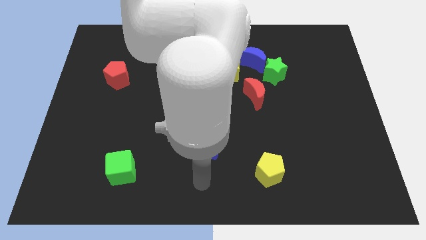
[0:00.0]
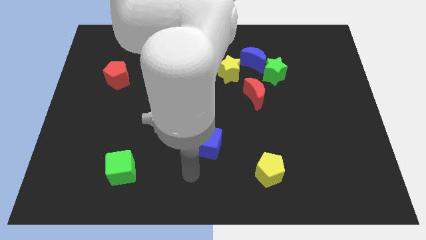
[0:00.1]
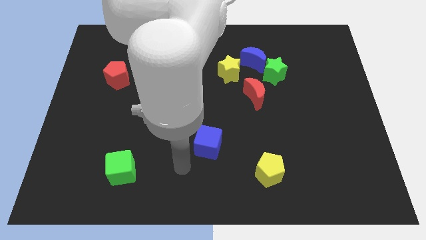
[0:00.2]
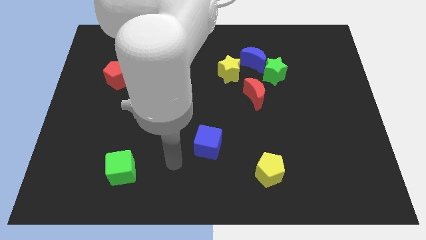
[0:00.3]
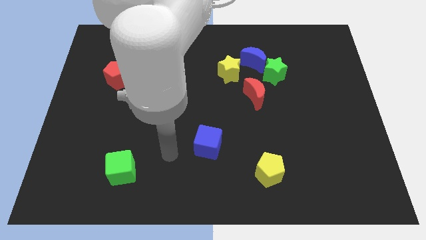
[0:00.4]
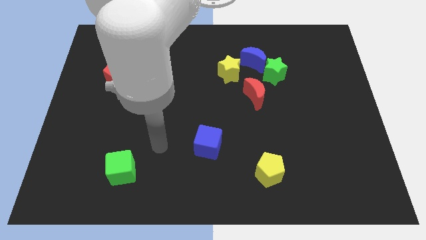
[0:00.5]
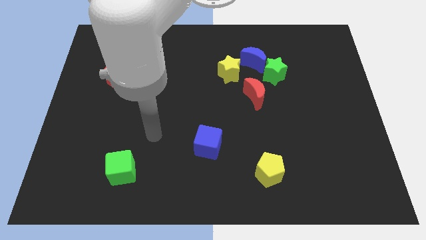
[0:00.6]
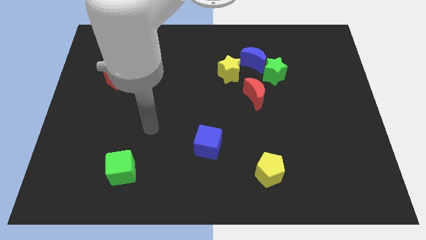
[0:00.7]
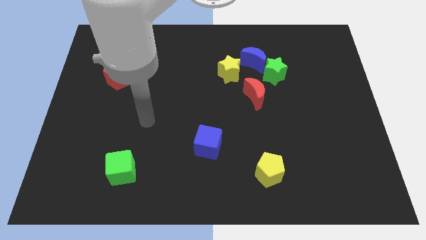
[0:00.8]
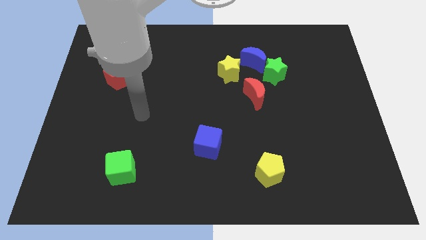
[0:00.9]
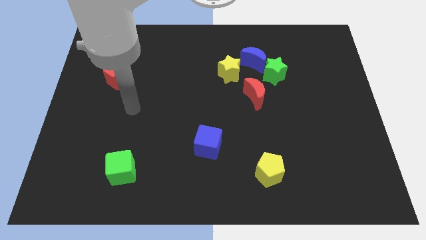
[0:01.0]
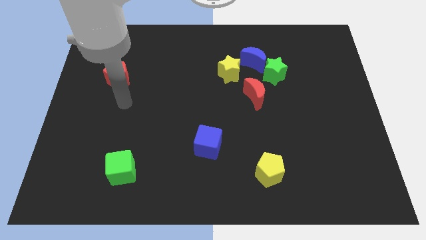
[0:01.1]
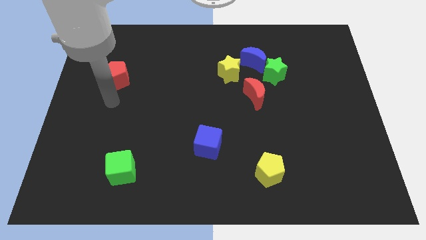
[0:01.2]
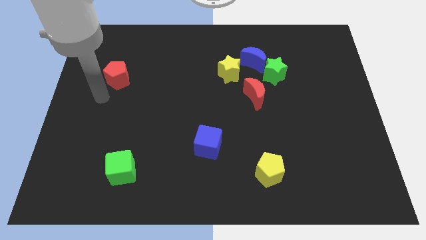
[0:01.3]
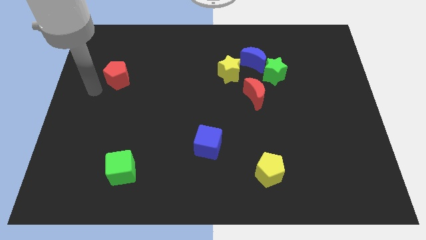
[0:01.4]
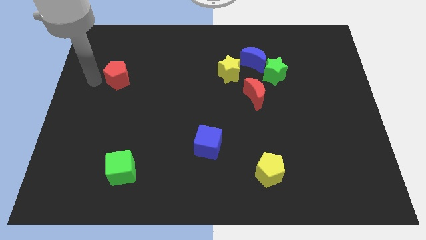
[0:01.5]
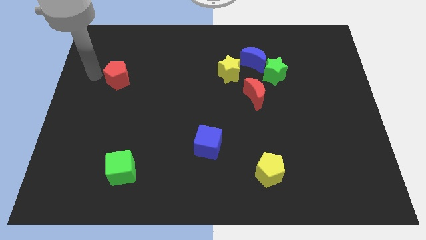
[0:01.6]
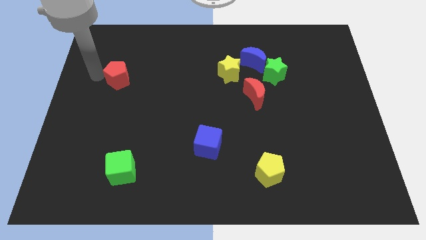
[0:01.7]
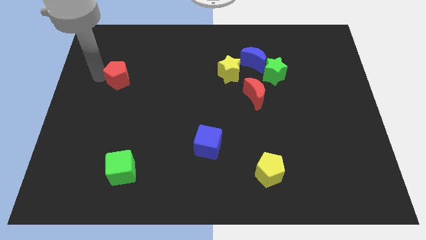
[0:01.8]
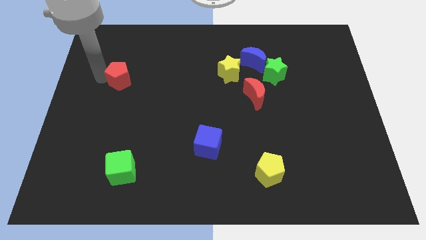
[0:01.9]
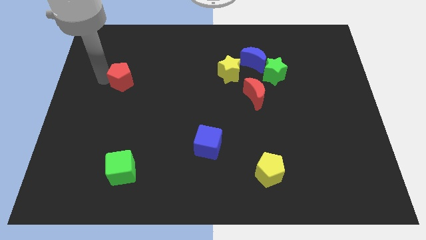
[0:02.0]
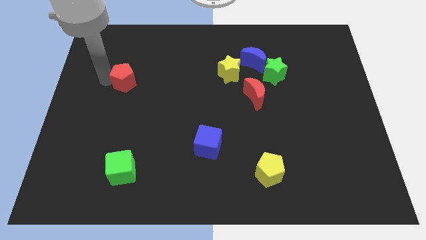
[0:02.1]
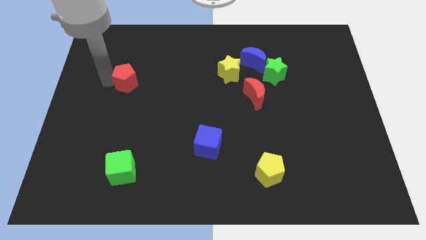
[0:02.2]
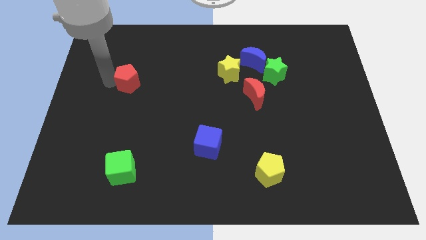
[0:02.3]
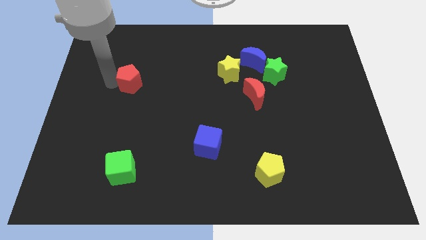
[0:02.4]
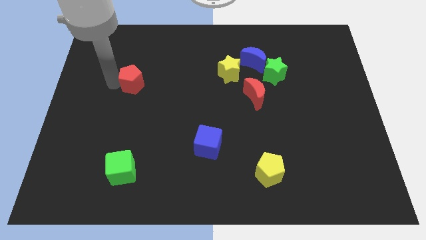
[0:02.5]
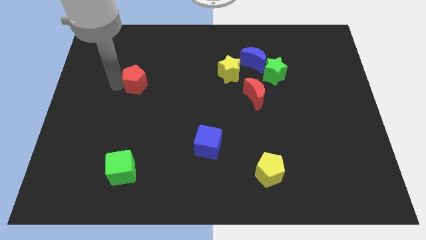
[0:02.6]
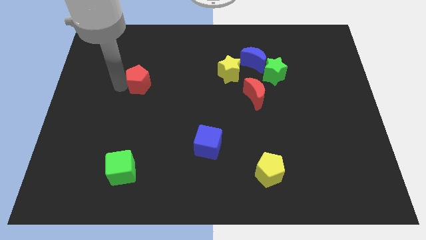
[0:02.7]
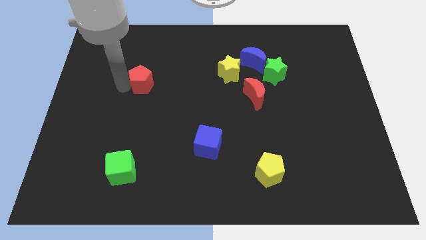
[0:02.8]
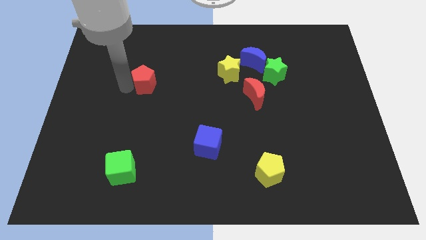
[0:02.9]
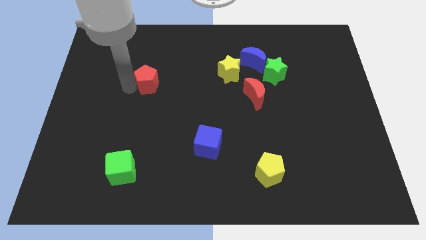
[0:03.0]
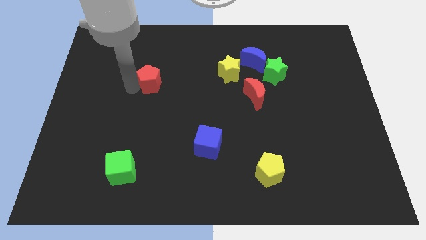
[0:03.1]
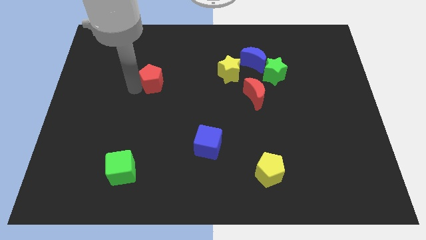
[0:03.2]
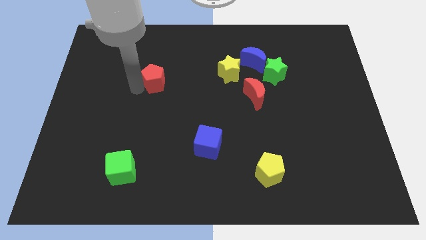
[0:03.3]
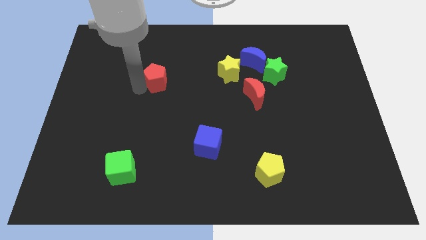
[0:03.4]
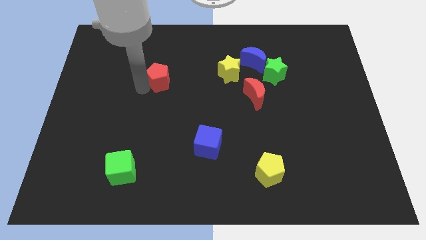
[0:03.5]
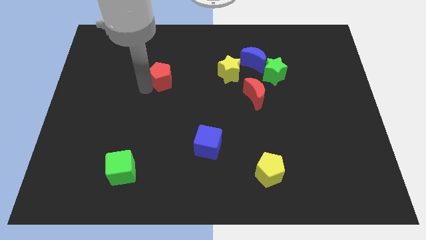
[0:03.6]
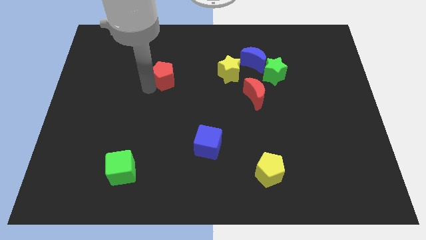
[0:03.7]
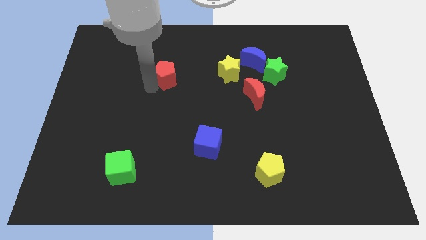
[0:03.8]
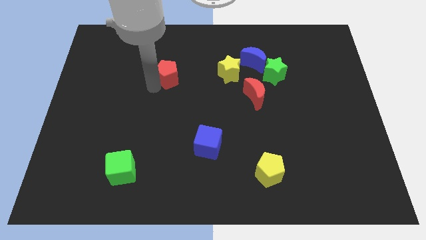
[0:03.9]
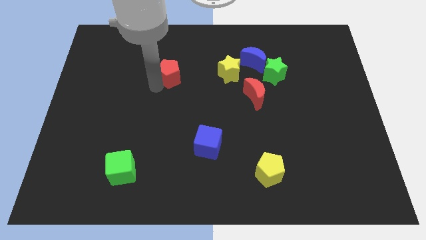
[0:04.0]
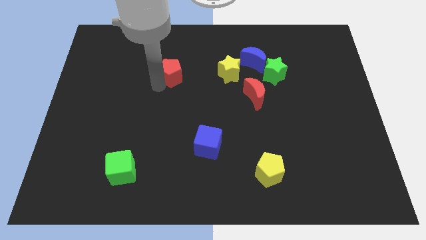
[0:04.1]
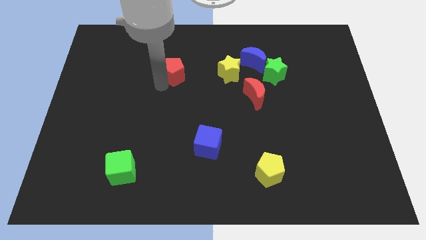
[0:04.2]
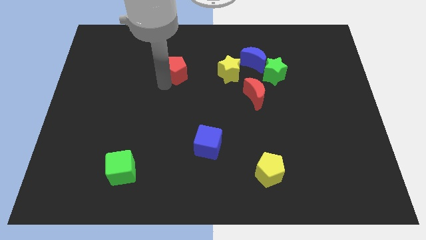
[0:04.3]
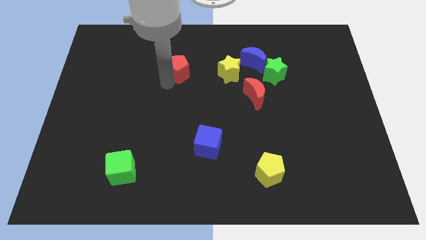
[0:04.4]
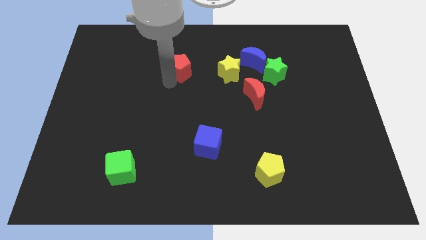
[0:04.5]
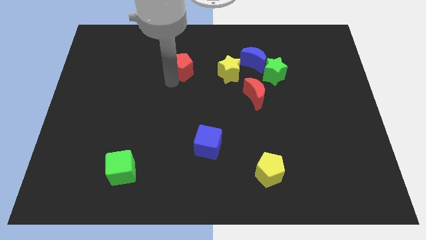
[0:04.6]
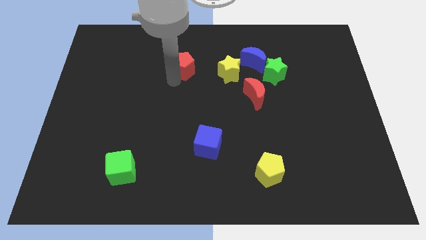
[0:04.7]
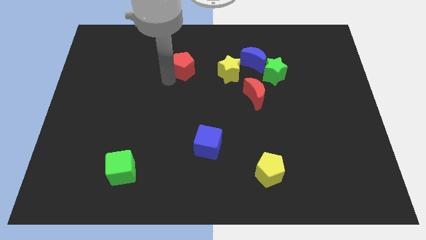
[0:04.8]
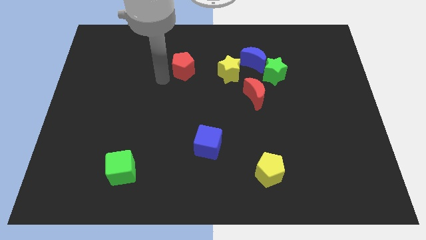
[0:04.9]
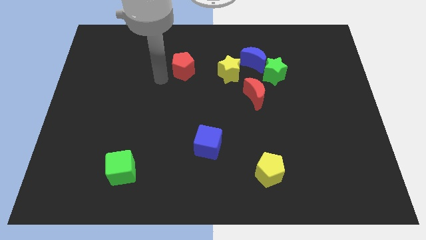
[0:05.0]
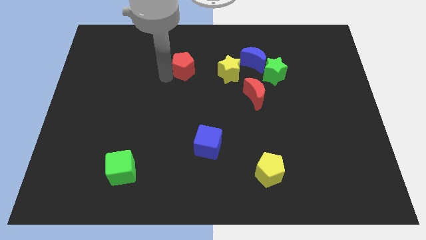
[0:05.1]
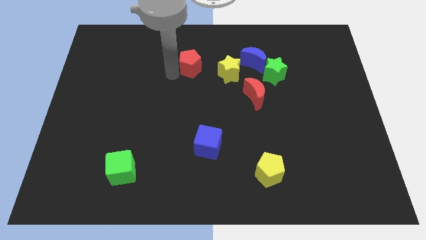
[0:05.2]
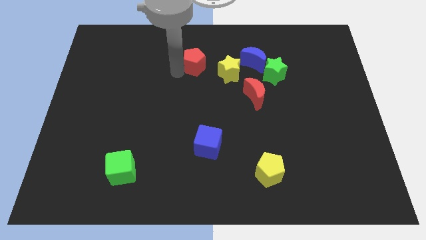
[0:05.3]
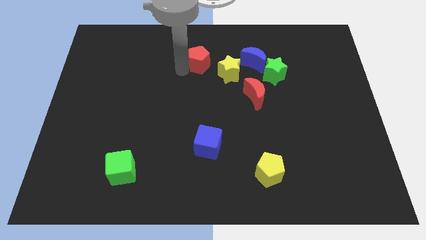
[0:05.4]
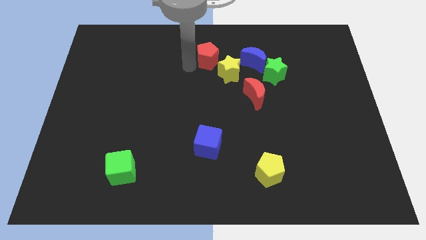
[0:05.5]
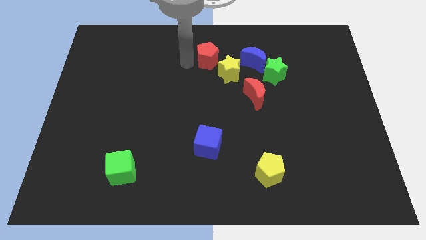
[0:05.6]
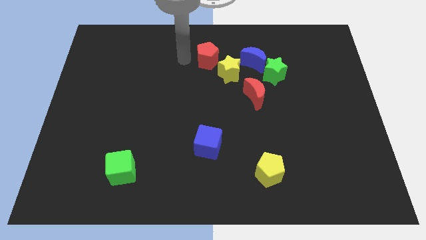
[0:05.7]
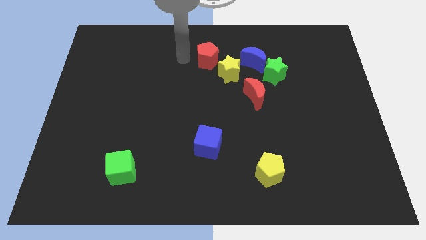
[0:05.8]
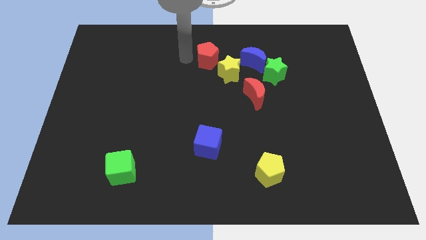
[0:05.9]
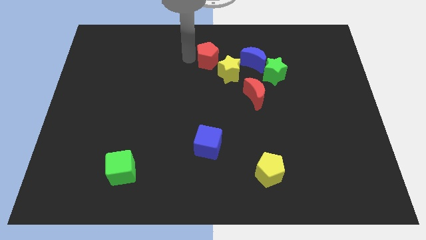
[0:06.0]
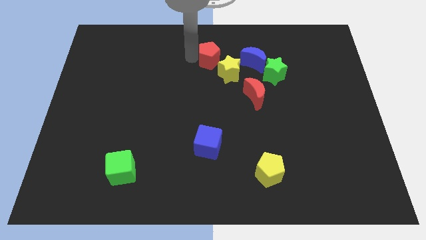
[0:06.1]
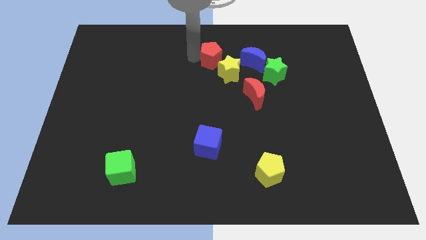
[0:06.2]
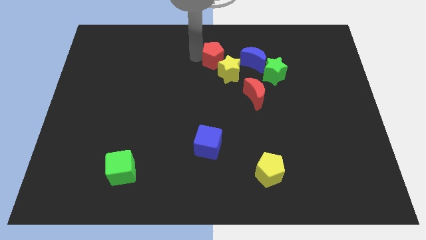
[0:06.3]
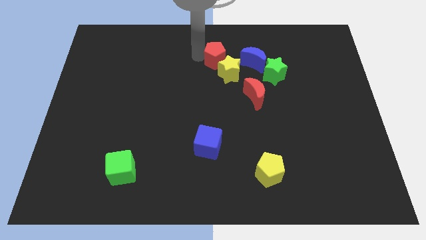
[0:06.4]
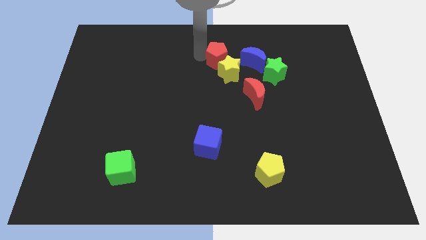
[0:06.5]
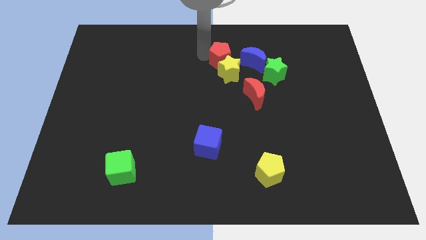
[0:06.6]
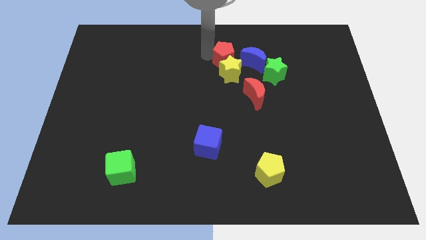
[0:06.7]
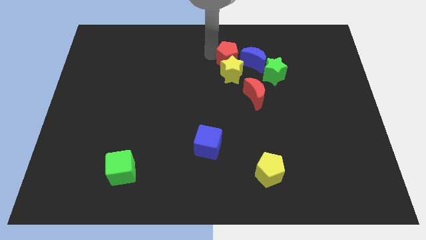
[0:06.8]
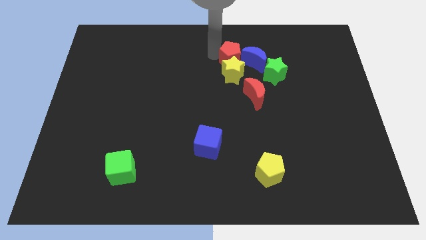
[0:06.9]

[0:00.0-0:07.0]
move the red pentagon next to the blue moon
